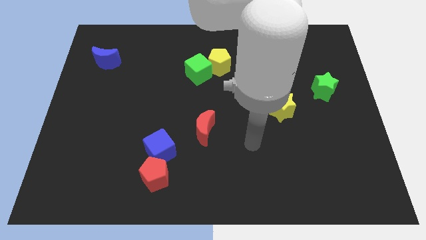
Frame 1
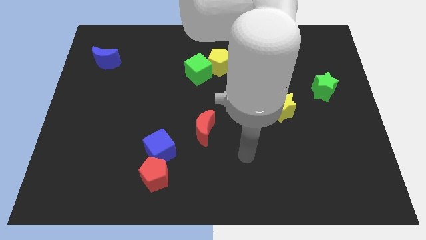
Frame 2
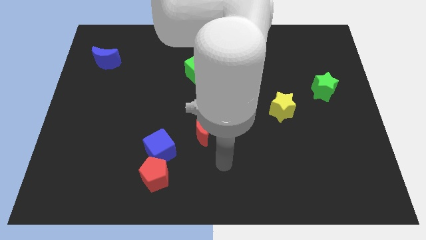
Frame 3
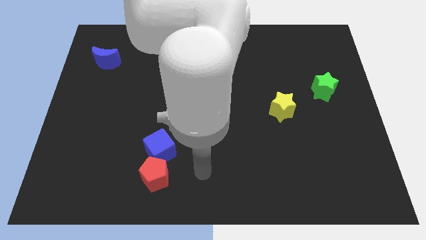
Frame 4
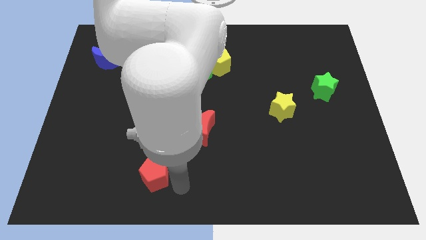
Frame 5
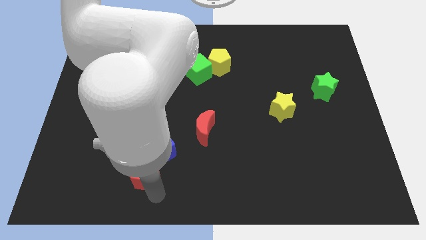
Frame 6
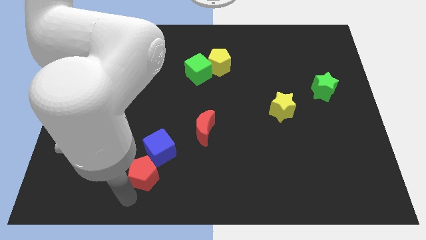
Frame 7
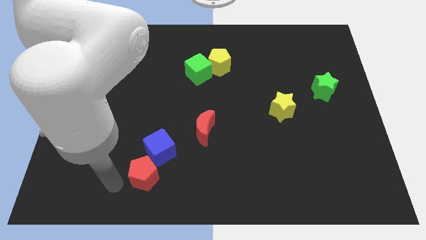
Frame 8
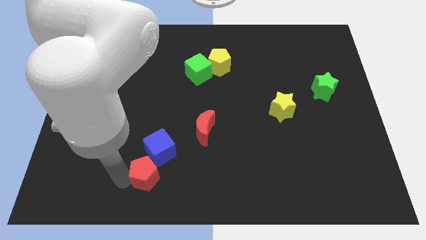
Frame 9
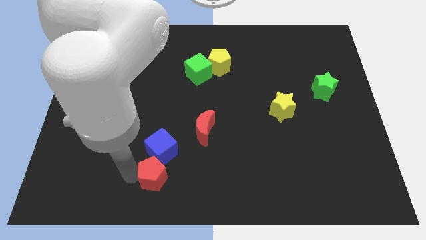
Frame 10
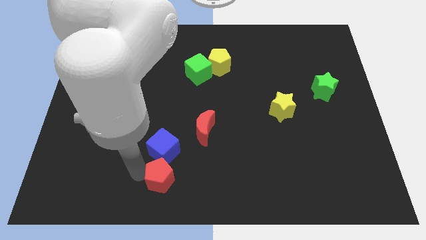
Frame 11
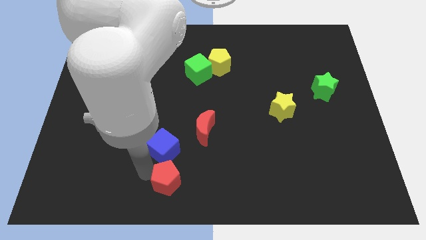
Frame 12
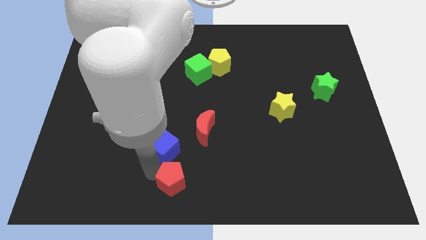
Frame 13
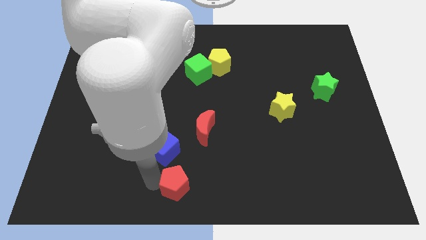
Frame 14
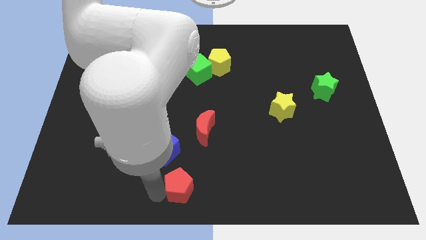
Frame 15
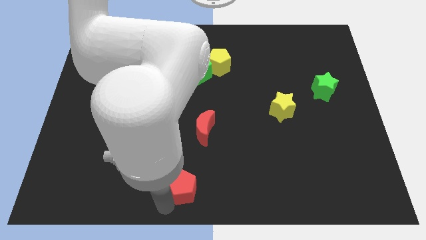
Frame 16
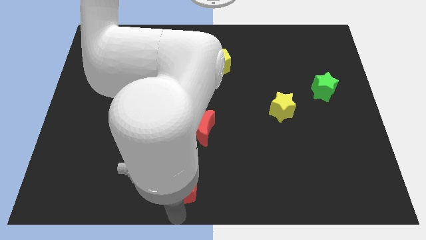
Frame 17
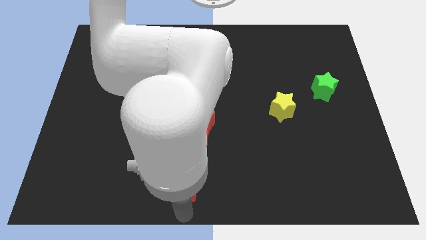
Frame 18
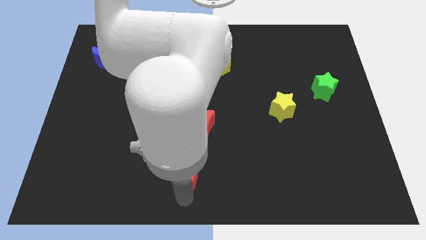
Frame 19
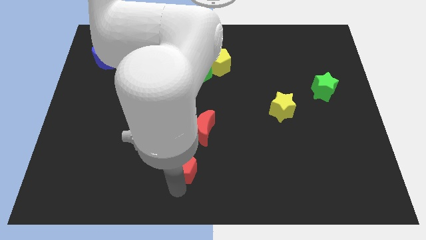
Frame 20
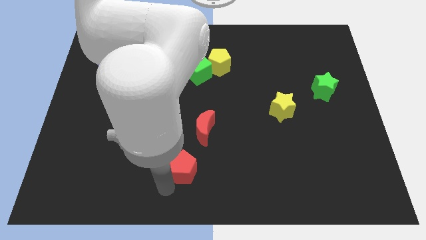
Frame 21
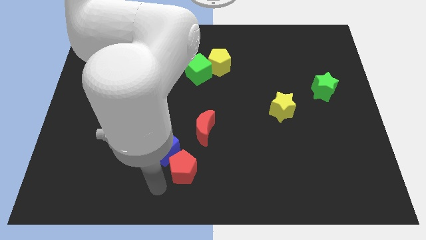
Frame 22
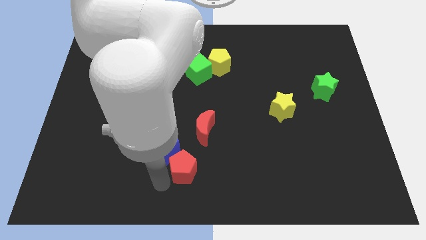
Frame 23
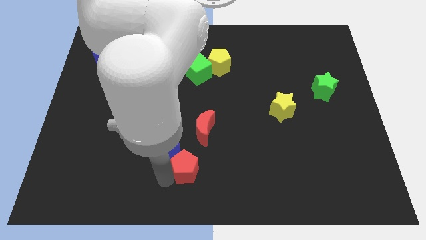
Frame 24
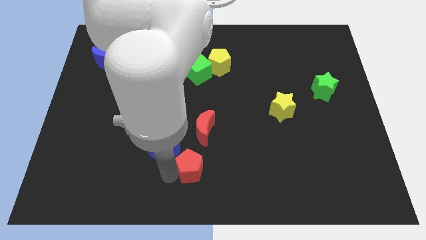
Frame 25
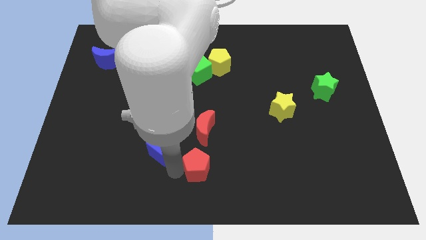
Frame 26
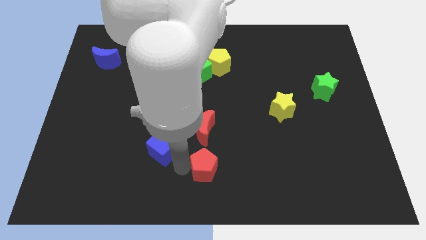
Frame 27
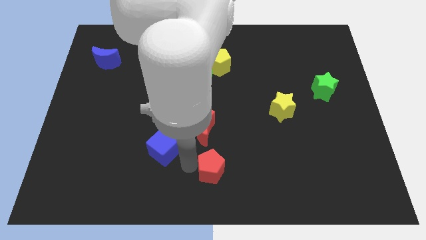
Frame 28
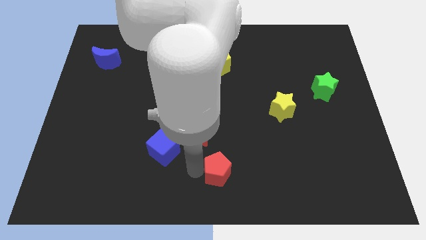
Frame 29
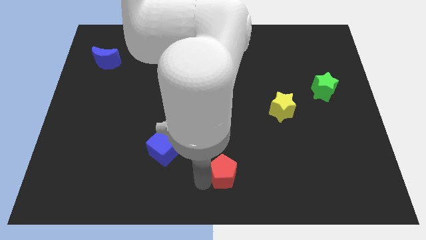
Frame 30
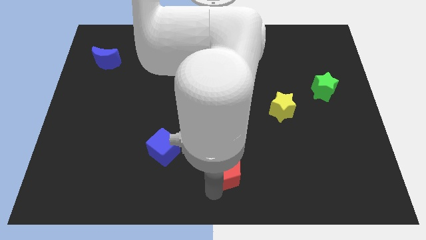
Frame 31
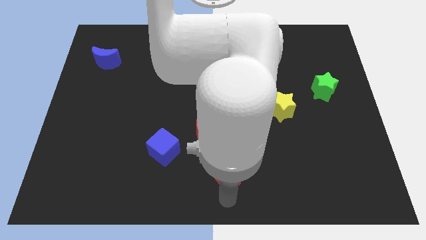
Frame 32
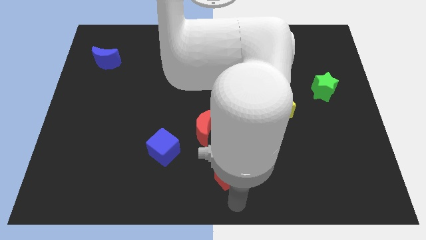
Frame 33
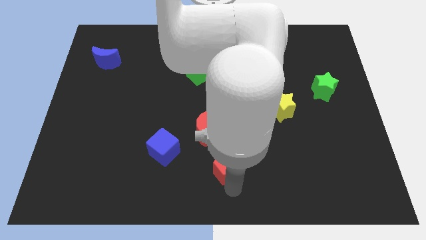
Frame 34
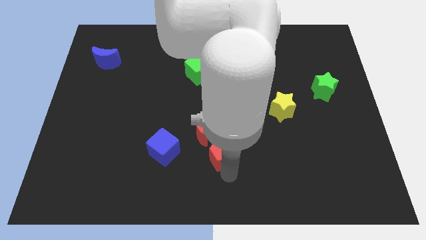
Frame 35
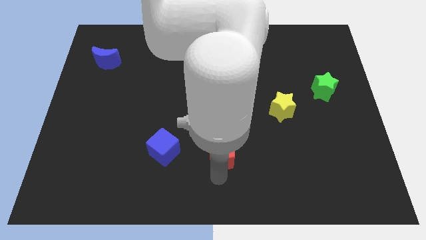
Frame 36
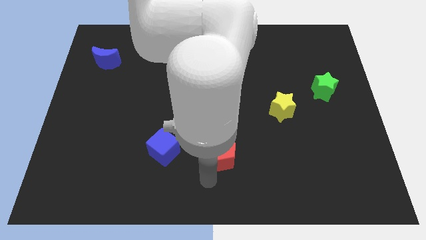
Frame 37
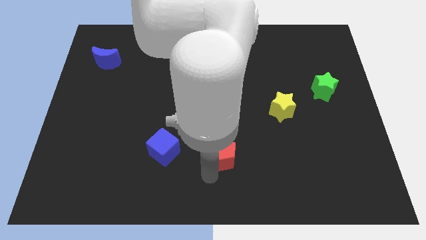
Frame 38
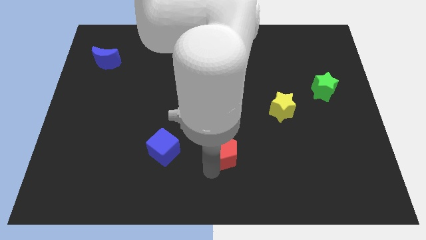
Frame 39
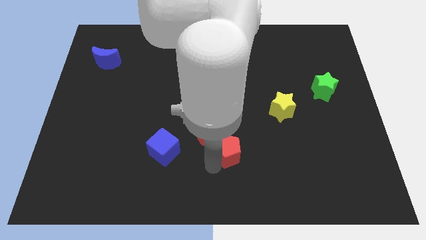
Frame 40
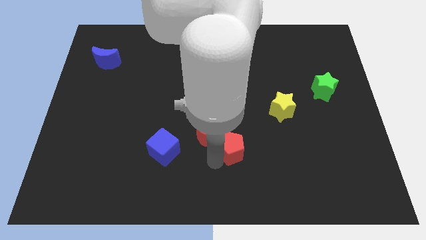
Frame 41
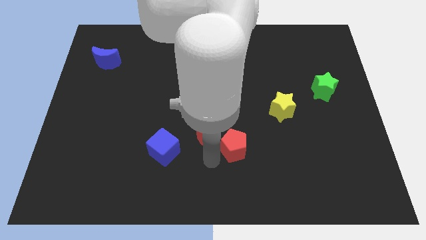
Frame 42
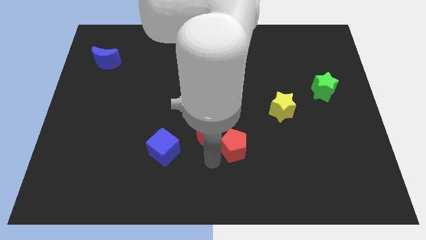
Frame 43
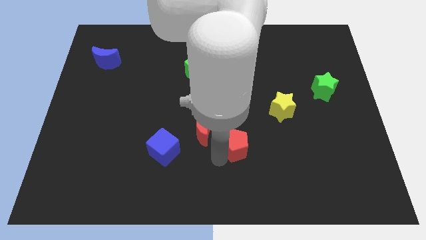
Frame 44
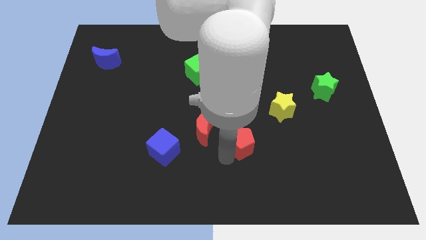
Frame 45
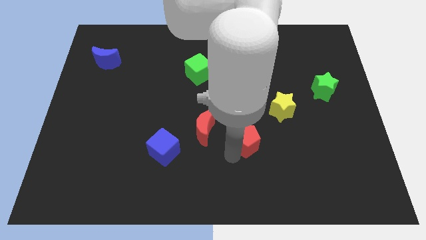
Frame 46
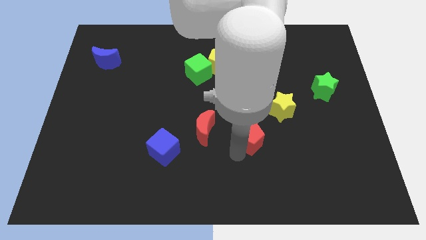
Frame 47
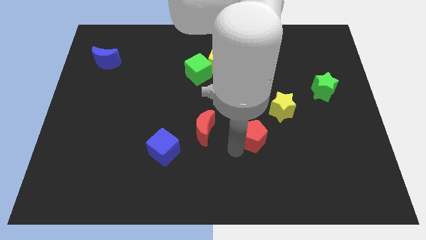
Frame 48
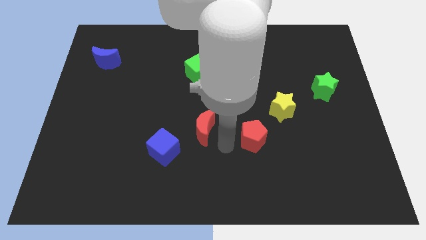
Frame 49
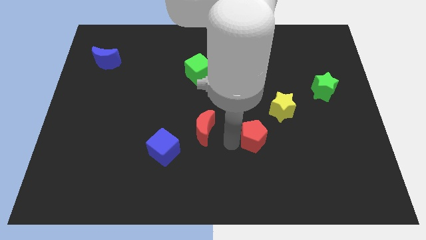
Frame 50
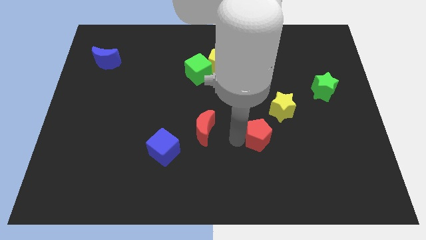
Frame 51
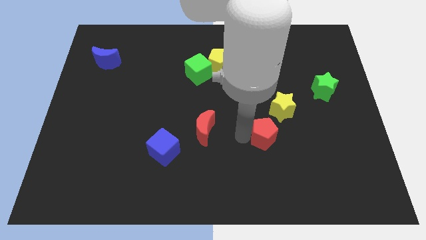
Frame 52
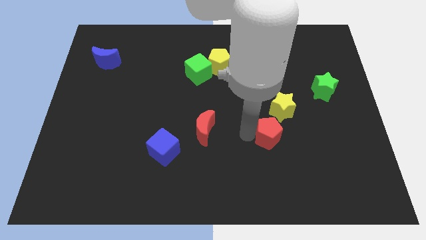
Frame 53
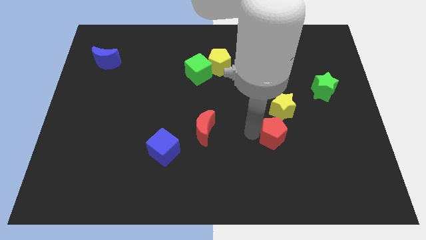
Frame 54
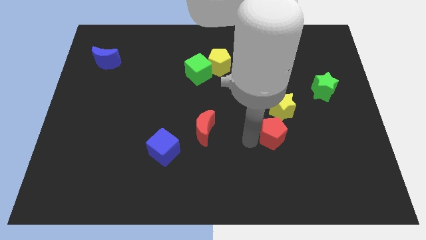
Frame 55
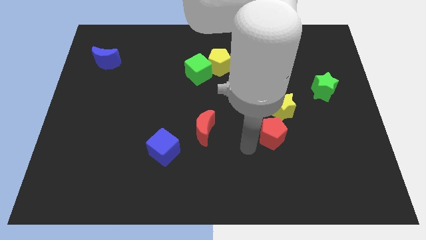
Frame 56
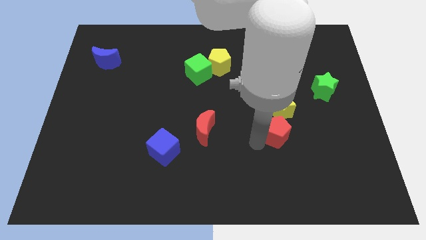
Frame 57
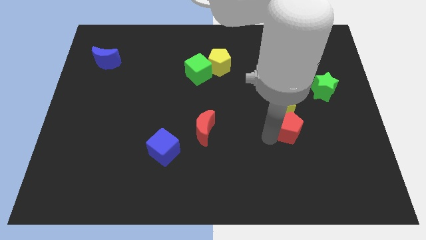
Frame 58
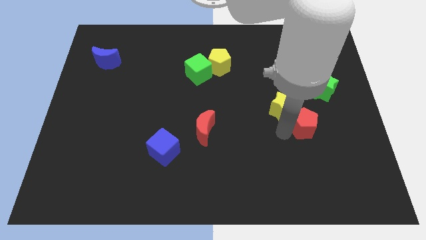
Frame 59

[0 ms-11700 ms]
move the red pentagon just right of the yellow star
